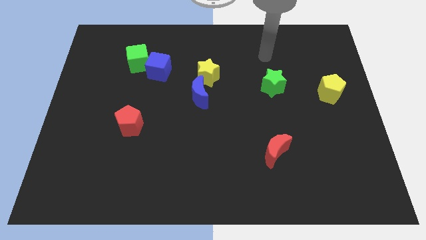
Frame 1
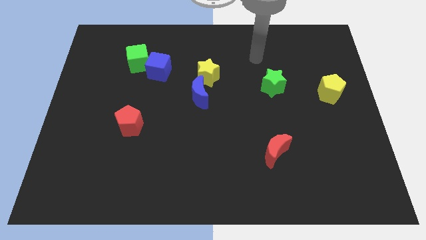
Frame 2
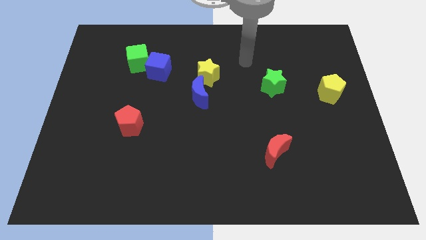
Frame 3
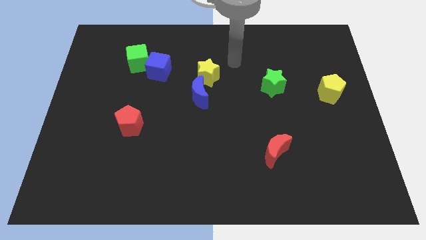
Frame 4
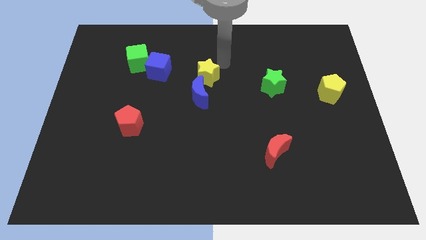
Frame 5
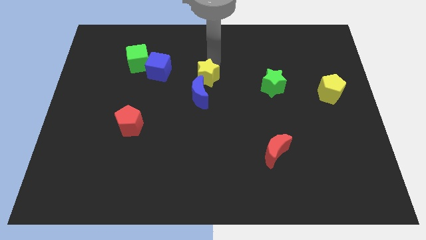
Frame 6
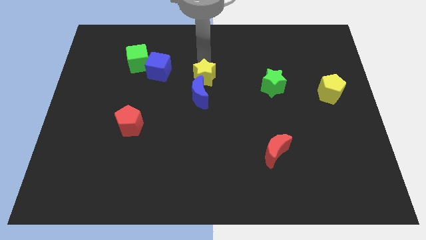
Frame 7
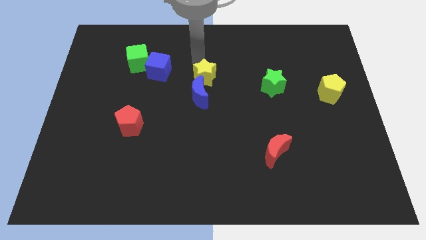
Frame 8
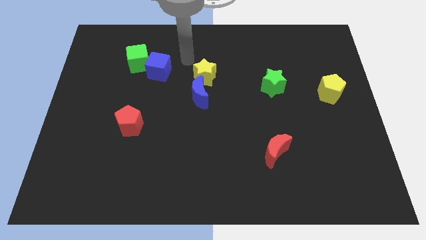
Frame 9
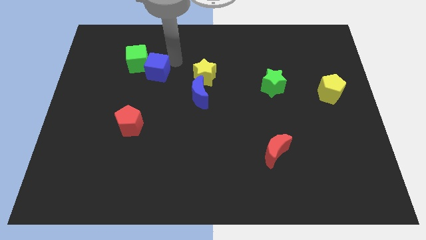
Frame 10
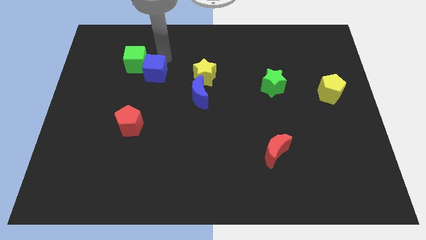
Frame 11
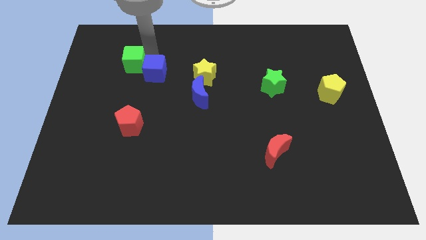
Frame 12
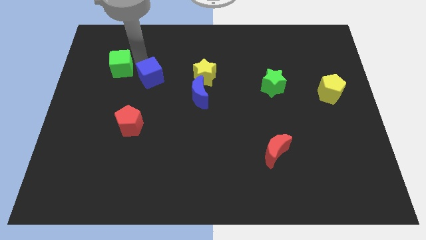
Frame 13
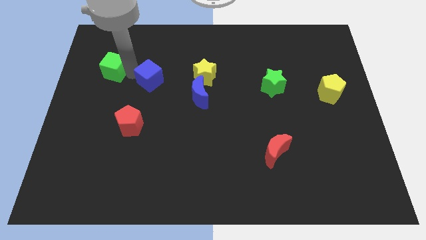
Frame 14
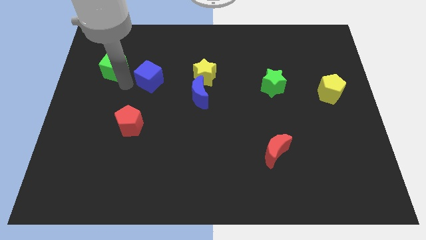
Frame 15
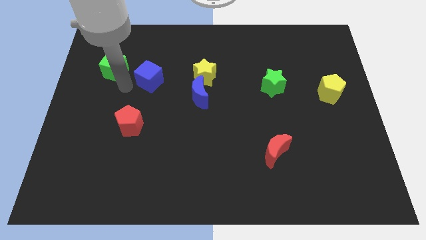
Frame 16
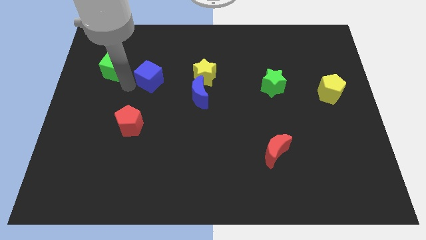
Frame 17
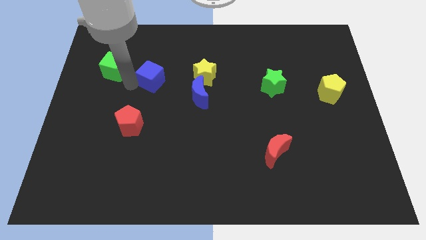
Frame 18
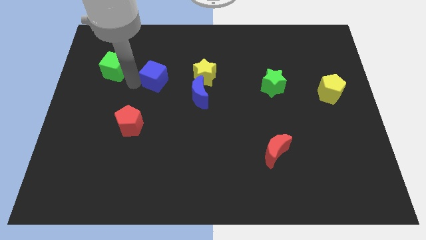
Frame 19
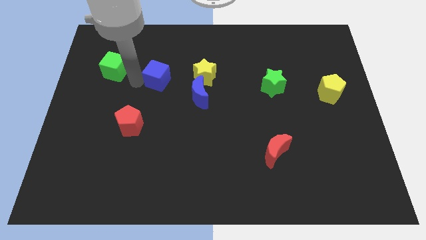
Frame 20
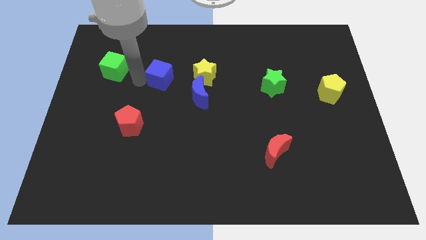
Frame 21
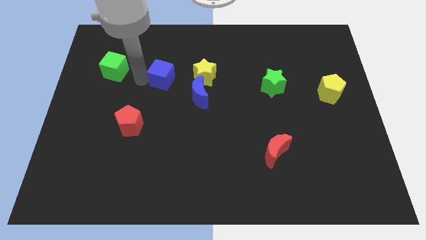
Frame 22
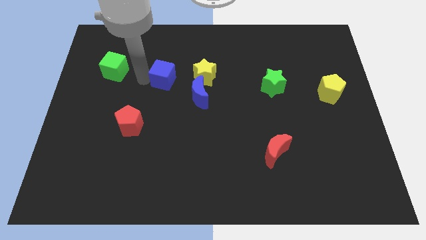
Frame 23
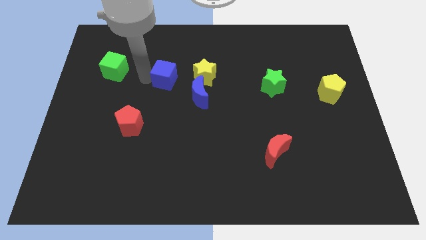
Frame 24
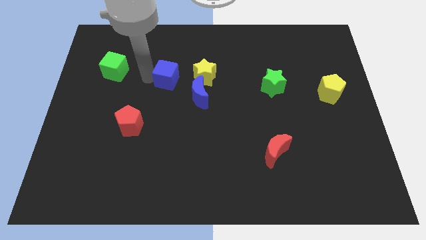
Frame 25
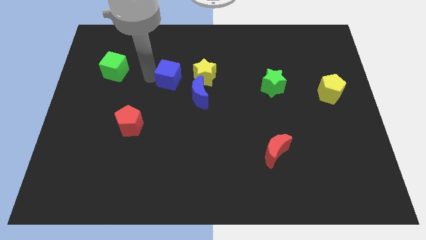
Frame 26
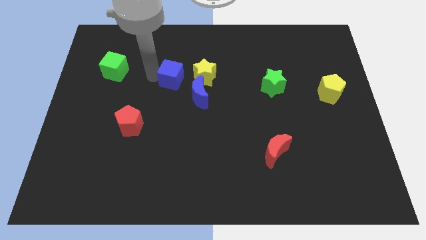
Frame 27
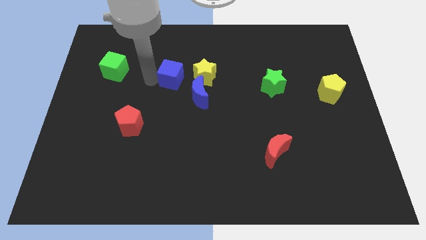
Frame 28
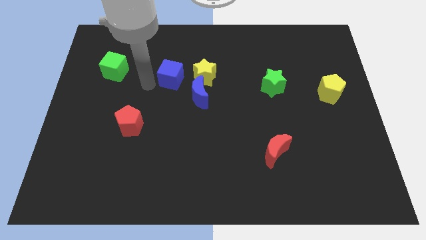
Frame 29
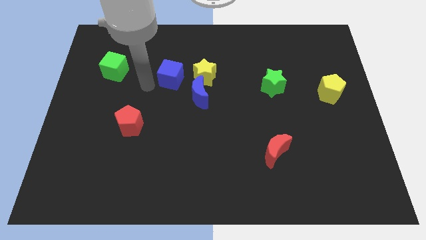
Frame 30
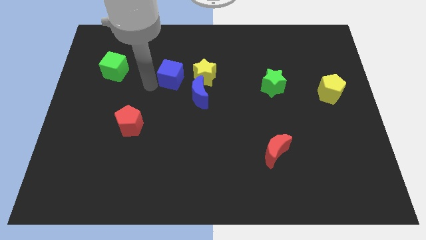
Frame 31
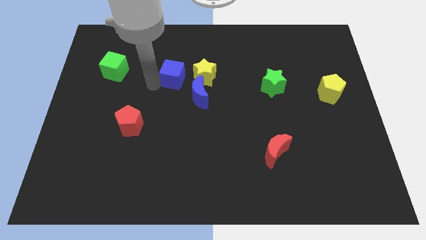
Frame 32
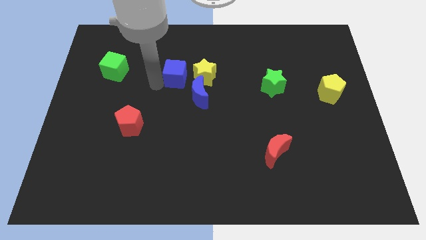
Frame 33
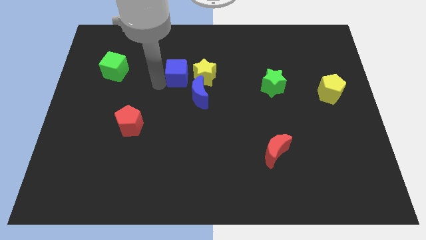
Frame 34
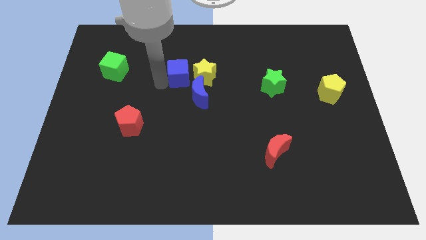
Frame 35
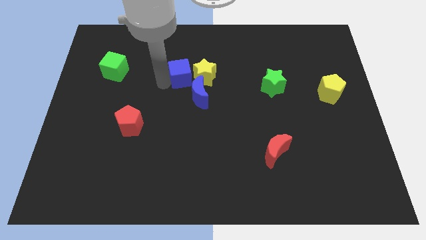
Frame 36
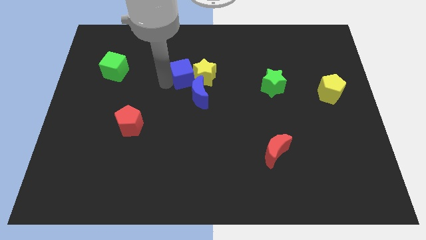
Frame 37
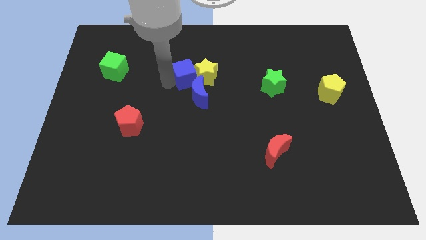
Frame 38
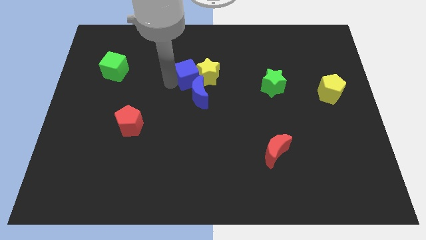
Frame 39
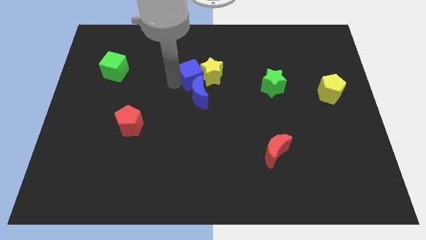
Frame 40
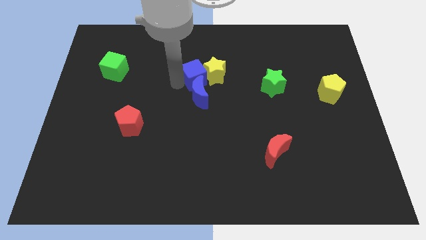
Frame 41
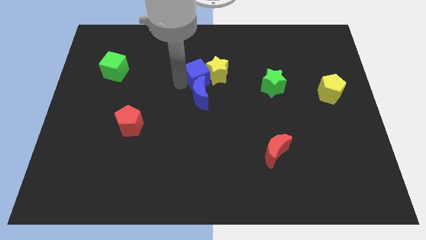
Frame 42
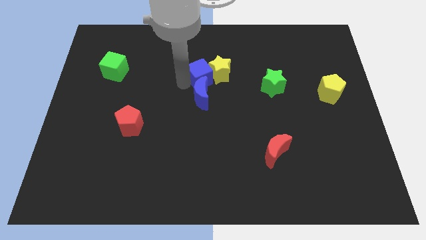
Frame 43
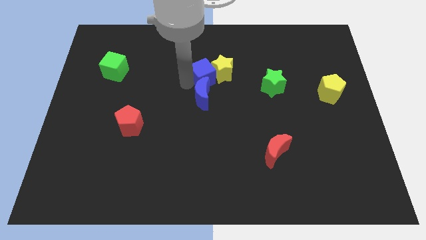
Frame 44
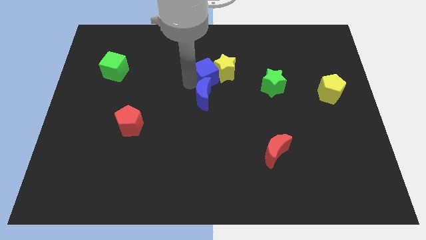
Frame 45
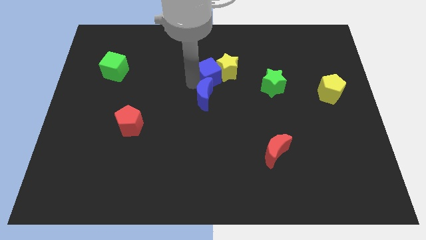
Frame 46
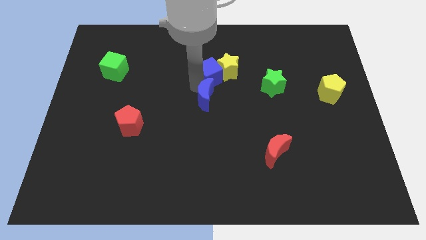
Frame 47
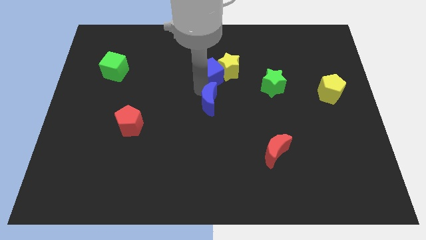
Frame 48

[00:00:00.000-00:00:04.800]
move the blue cube to the left side of the green star

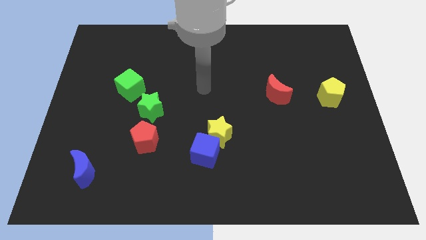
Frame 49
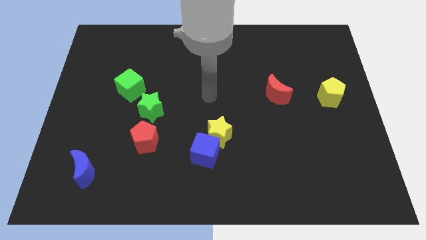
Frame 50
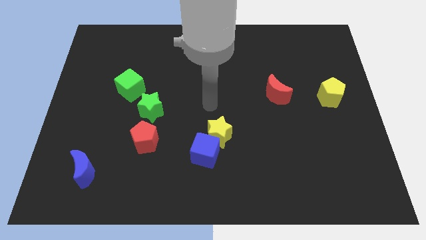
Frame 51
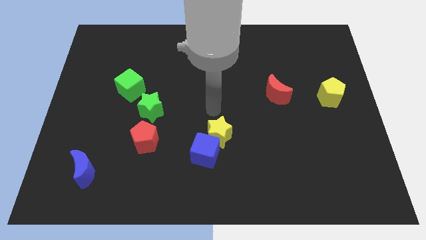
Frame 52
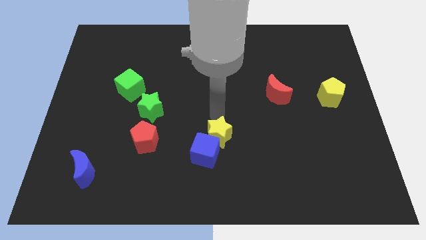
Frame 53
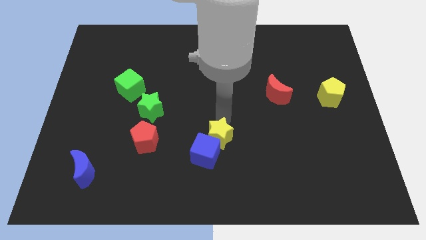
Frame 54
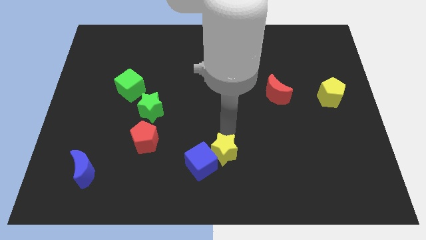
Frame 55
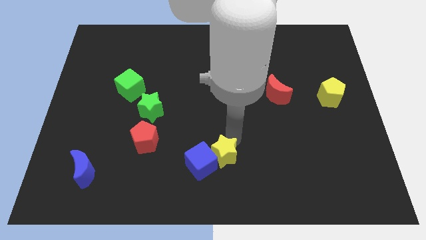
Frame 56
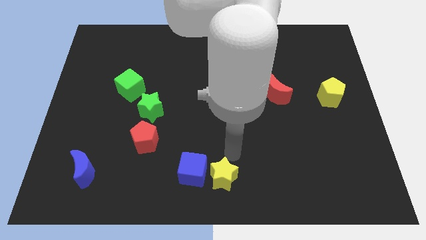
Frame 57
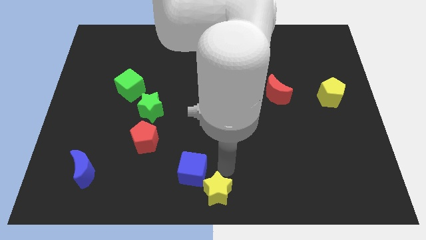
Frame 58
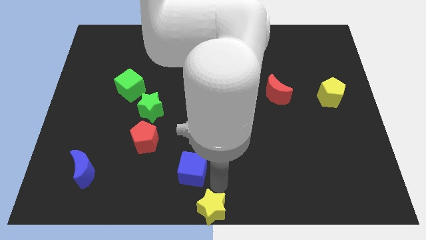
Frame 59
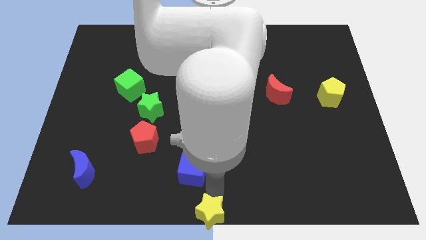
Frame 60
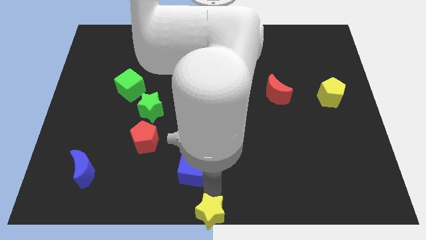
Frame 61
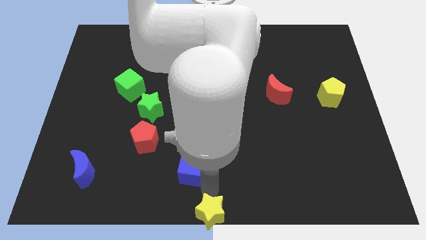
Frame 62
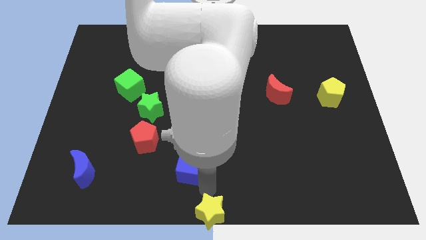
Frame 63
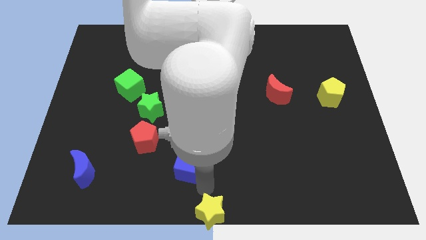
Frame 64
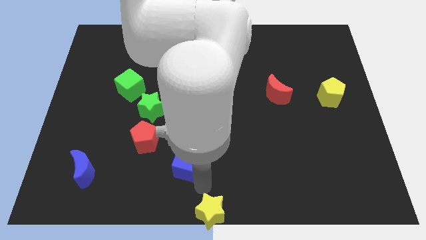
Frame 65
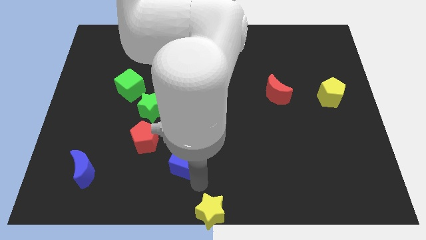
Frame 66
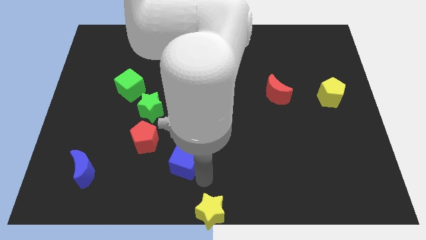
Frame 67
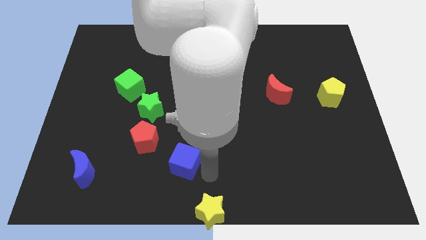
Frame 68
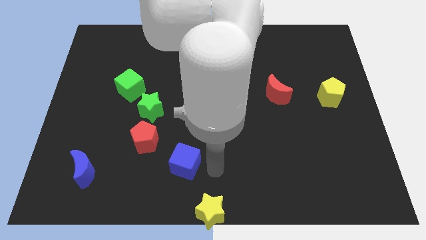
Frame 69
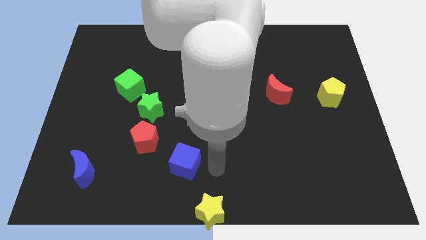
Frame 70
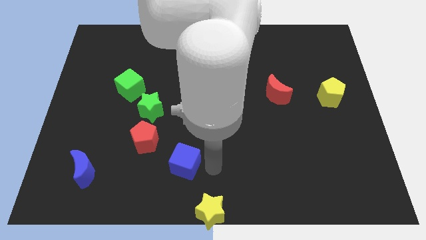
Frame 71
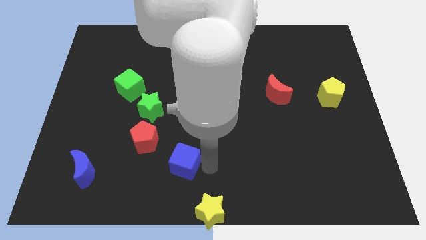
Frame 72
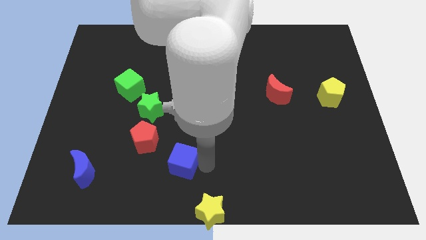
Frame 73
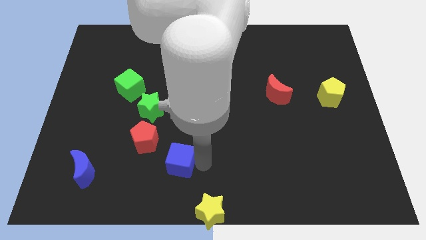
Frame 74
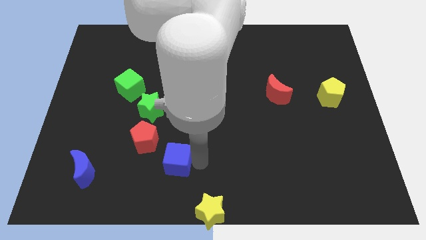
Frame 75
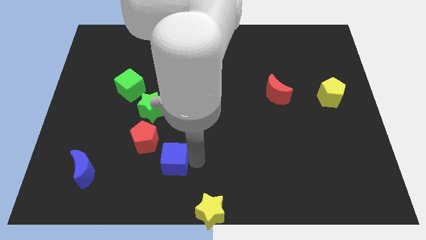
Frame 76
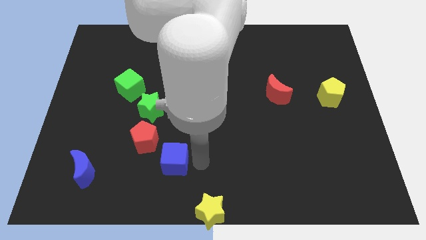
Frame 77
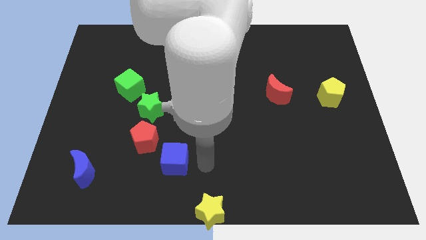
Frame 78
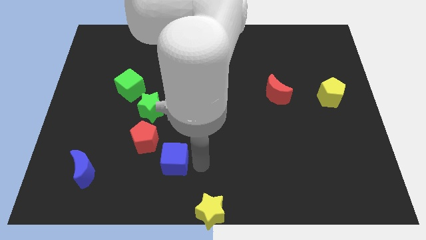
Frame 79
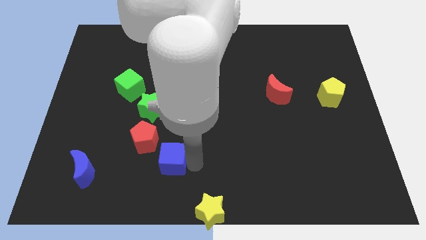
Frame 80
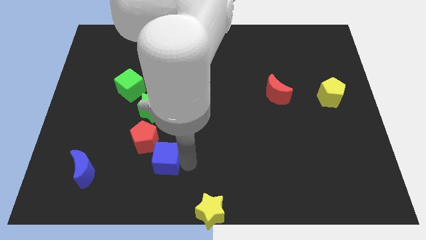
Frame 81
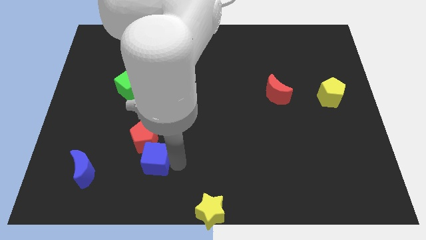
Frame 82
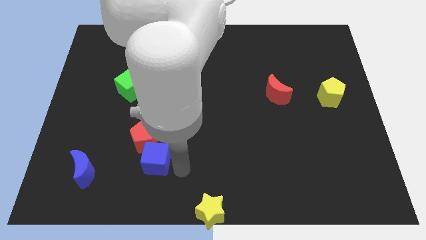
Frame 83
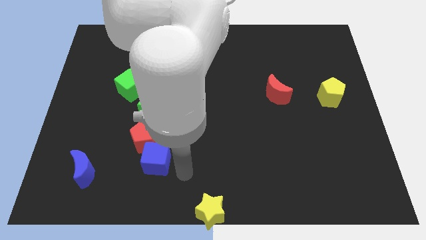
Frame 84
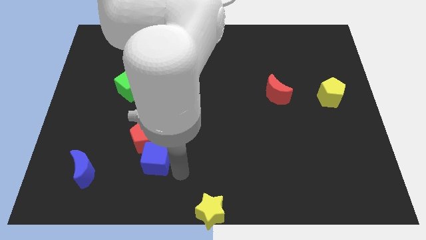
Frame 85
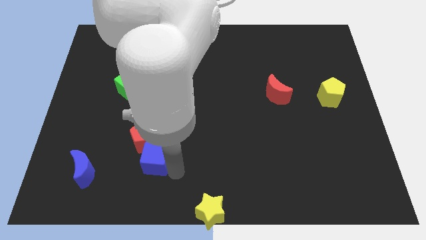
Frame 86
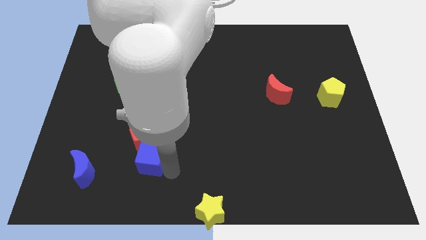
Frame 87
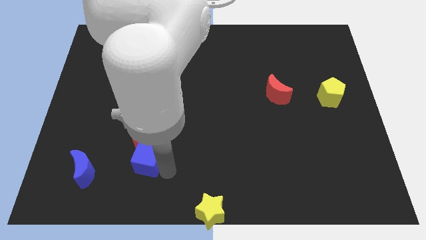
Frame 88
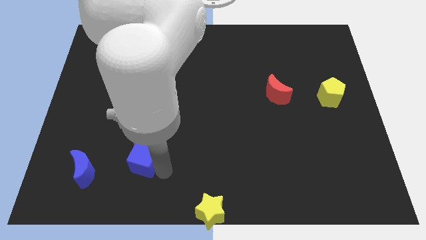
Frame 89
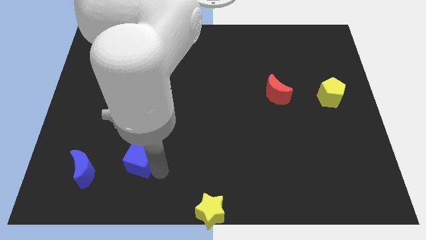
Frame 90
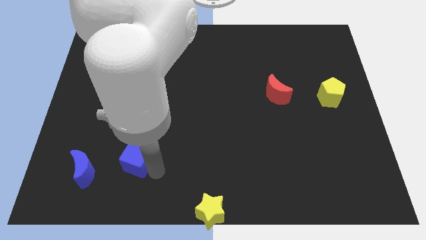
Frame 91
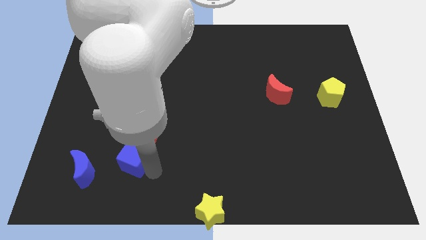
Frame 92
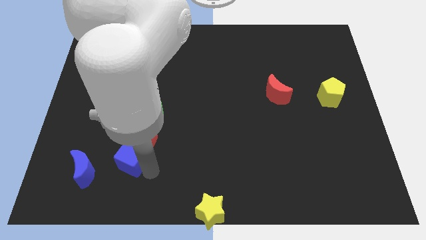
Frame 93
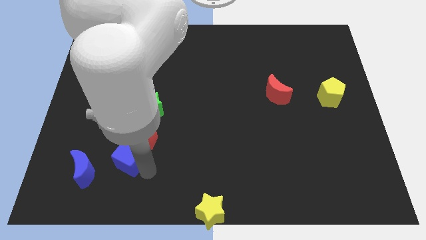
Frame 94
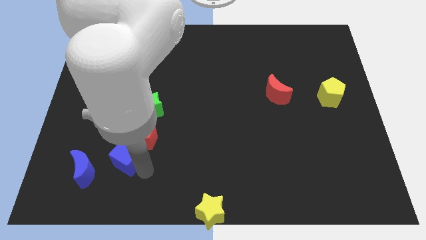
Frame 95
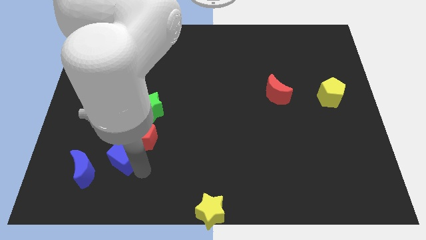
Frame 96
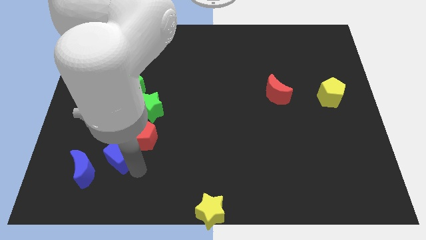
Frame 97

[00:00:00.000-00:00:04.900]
move the blue cube to the left side of the red pentagon
